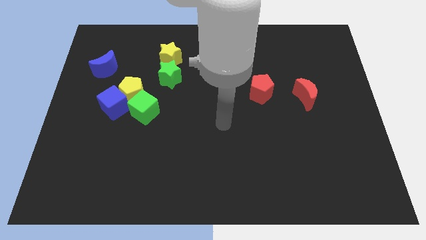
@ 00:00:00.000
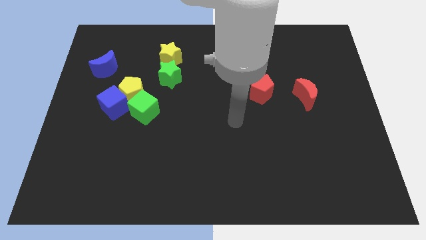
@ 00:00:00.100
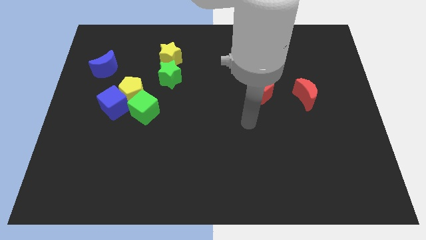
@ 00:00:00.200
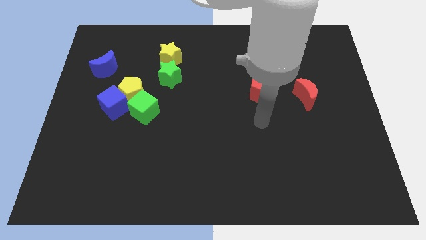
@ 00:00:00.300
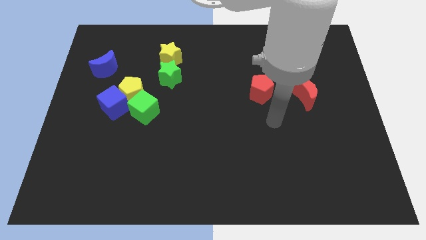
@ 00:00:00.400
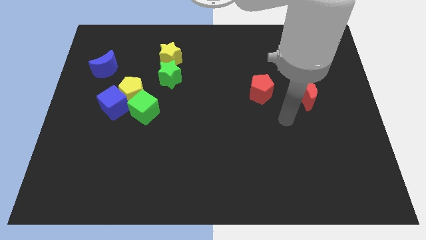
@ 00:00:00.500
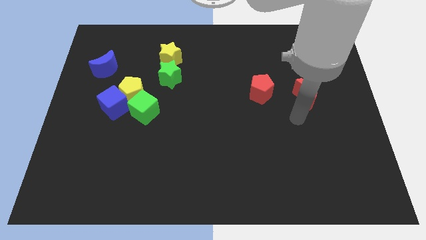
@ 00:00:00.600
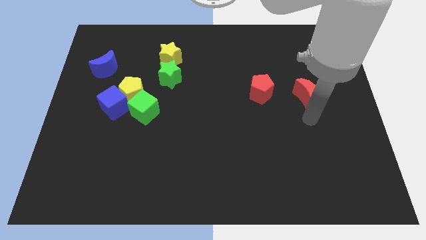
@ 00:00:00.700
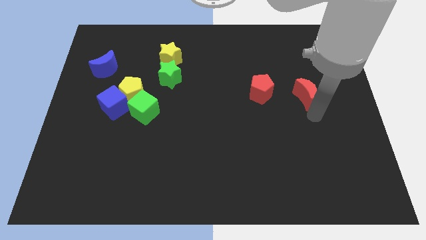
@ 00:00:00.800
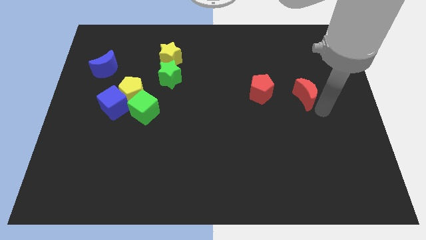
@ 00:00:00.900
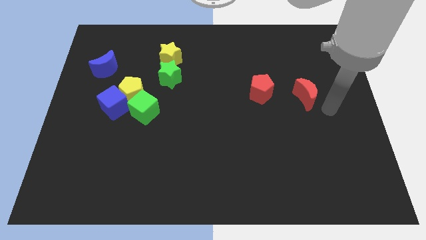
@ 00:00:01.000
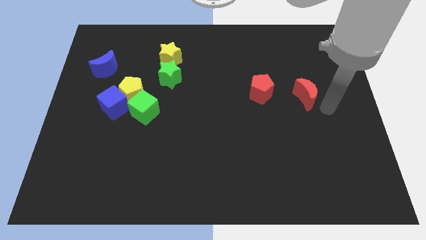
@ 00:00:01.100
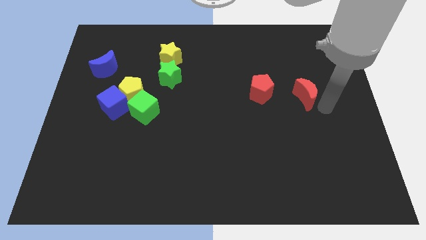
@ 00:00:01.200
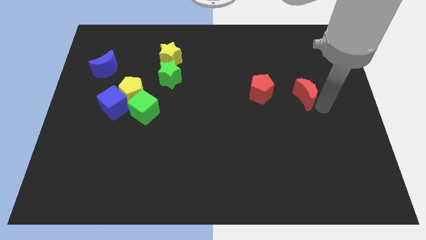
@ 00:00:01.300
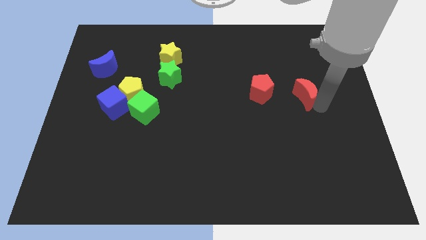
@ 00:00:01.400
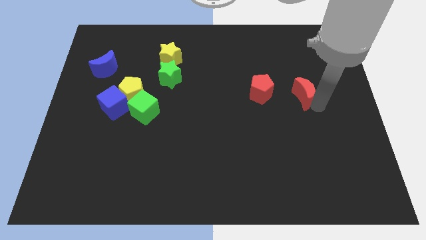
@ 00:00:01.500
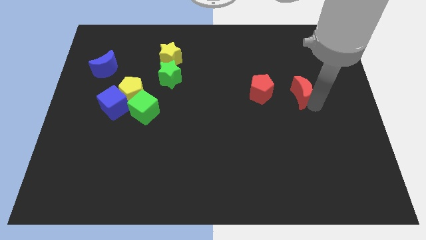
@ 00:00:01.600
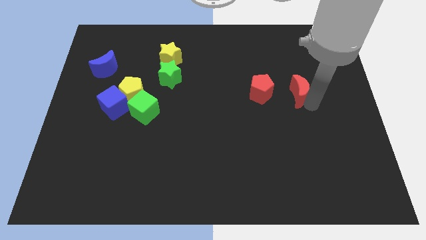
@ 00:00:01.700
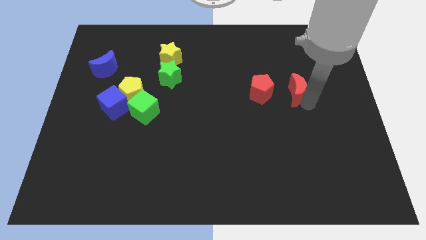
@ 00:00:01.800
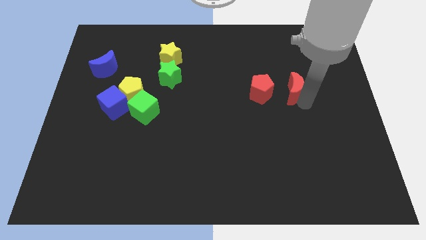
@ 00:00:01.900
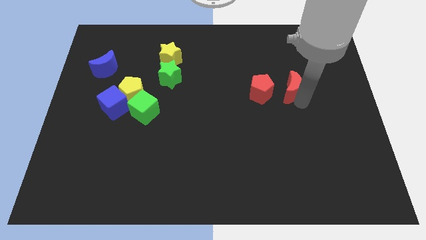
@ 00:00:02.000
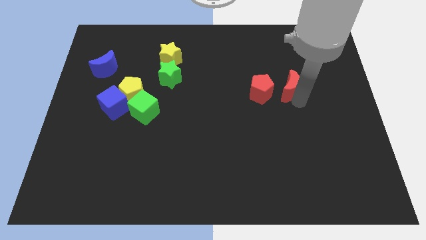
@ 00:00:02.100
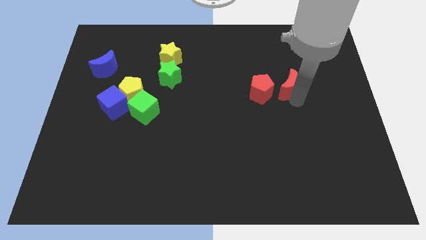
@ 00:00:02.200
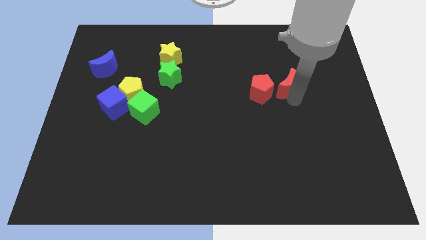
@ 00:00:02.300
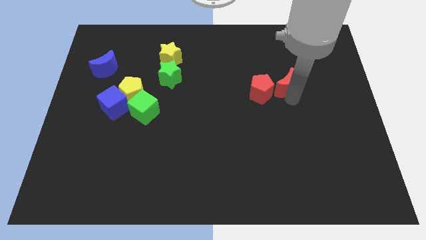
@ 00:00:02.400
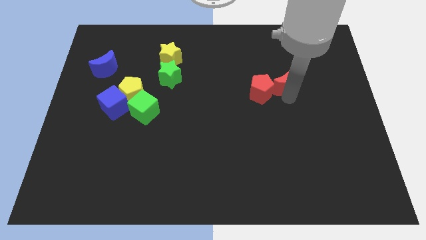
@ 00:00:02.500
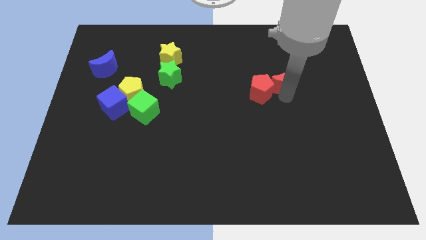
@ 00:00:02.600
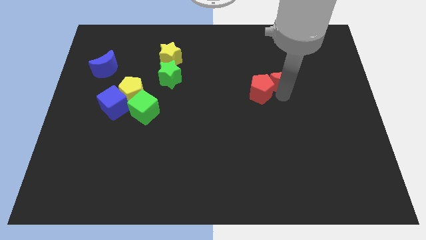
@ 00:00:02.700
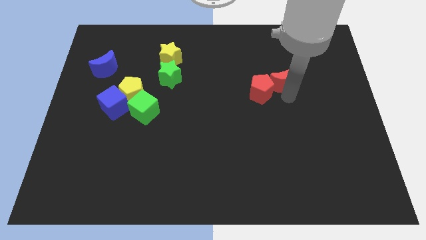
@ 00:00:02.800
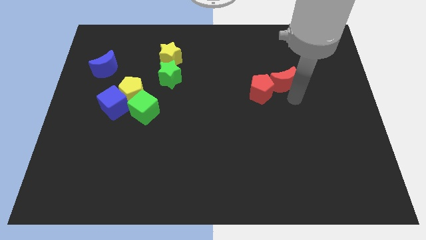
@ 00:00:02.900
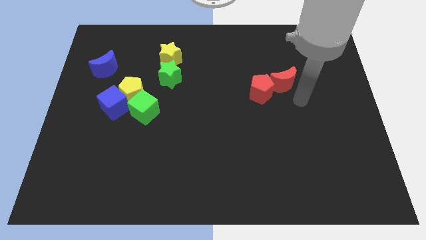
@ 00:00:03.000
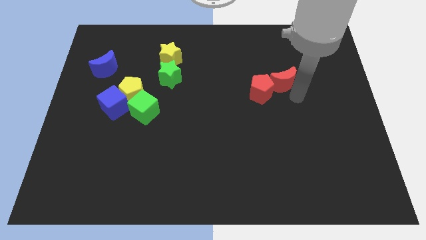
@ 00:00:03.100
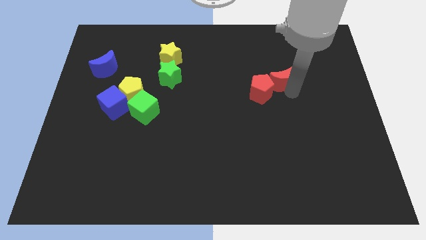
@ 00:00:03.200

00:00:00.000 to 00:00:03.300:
push the red moon upwards and then to the left a bit

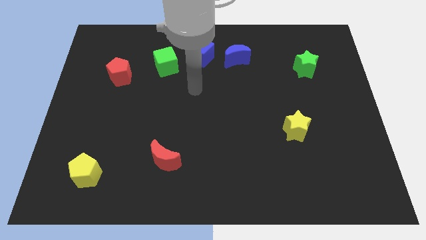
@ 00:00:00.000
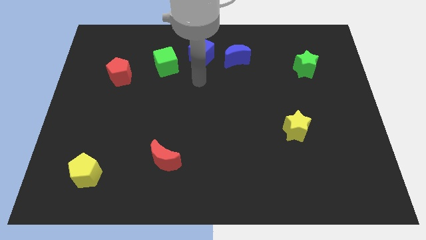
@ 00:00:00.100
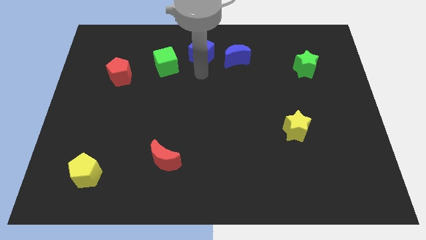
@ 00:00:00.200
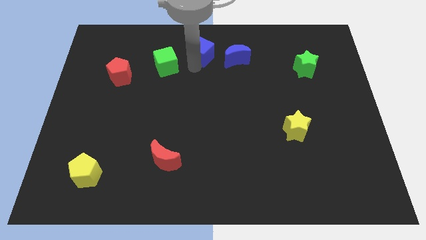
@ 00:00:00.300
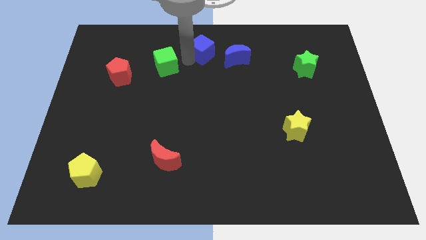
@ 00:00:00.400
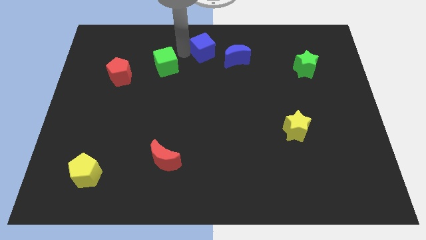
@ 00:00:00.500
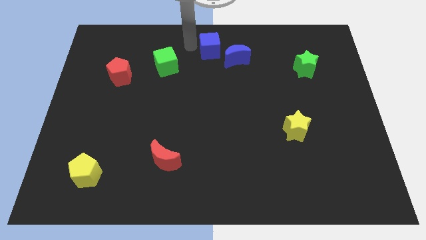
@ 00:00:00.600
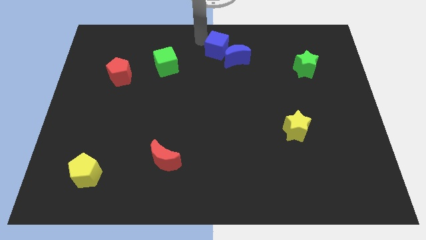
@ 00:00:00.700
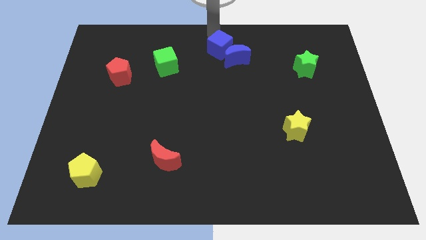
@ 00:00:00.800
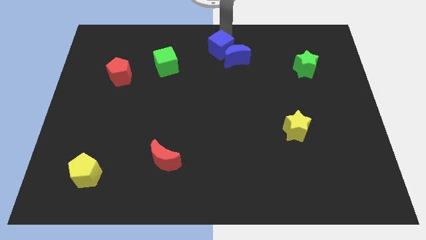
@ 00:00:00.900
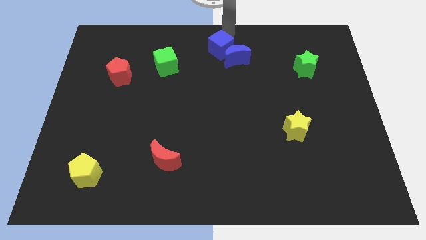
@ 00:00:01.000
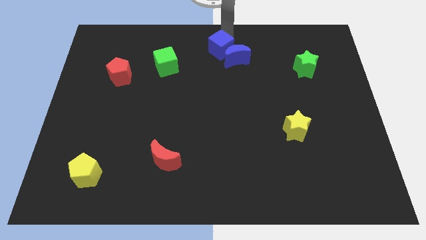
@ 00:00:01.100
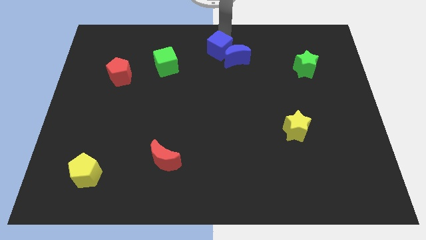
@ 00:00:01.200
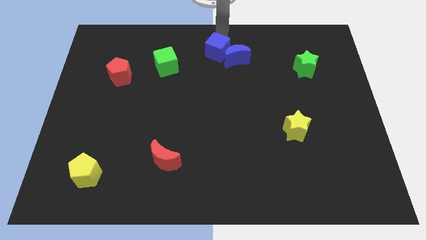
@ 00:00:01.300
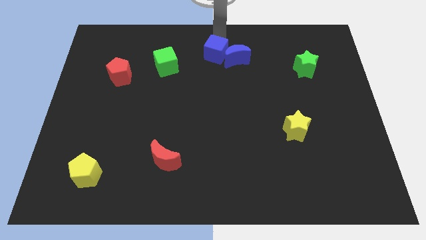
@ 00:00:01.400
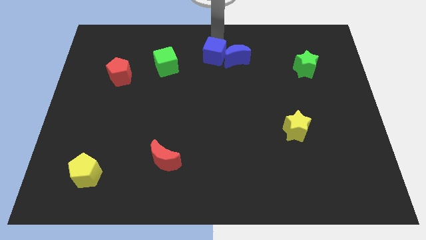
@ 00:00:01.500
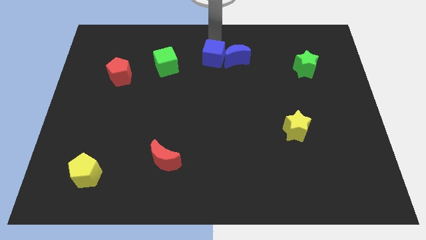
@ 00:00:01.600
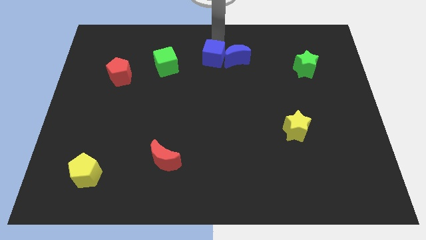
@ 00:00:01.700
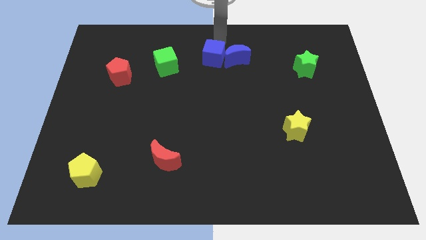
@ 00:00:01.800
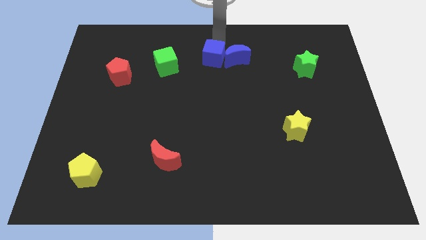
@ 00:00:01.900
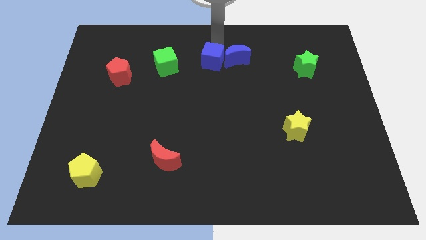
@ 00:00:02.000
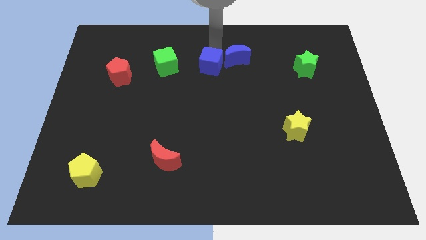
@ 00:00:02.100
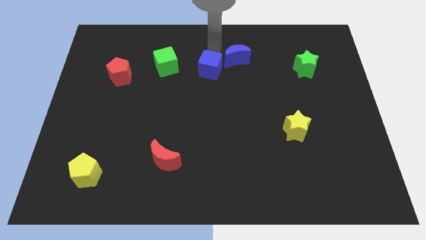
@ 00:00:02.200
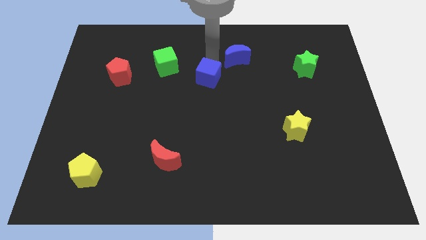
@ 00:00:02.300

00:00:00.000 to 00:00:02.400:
push the blue cube somewhat downwards

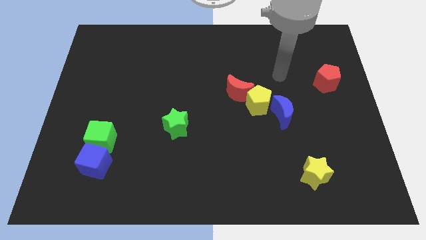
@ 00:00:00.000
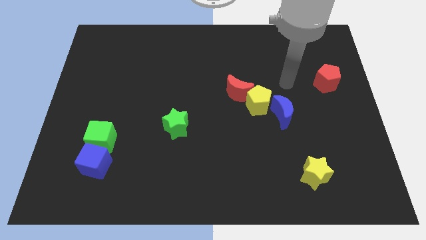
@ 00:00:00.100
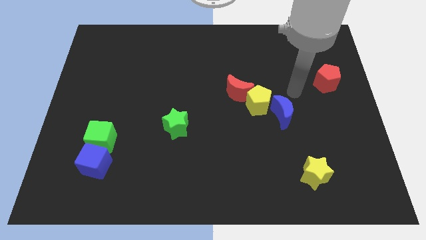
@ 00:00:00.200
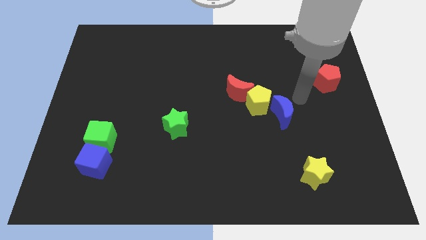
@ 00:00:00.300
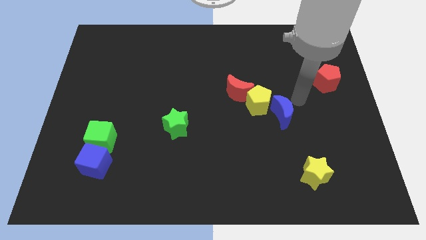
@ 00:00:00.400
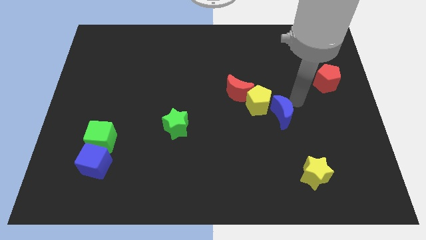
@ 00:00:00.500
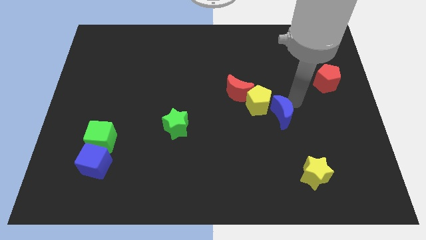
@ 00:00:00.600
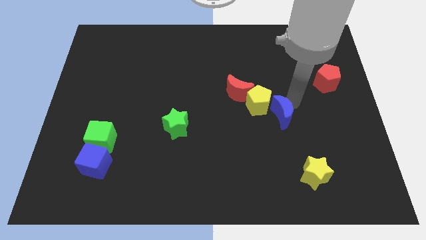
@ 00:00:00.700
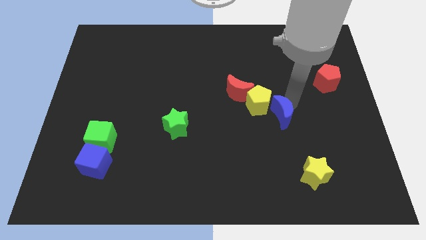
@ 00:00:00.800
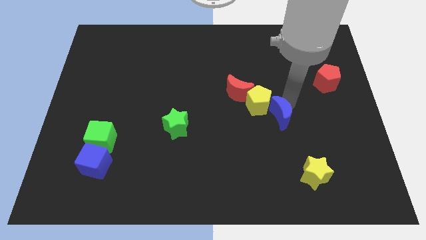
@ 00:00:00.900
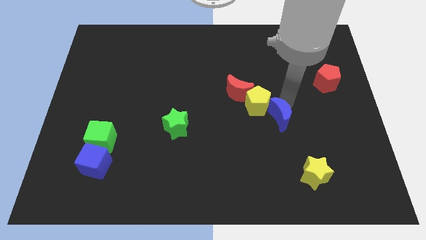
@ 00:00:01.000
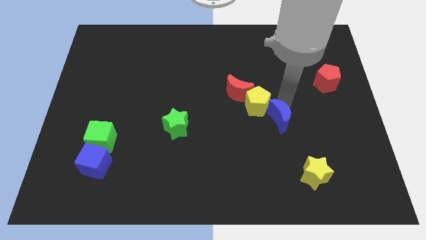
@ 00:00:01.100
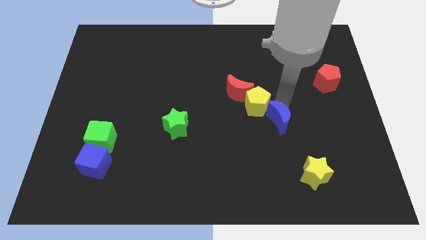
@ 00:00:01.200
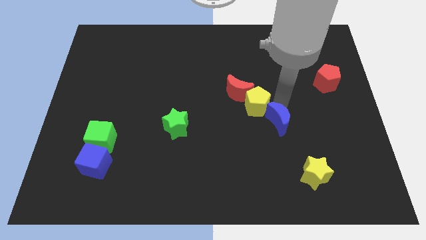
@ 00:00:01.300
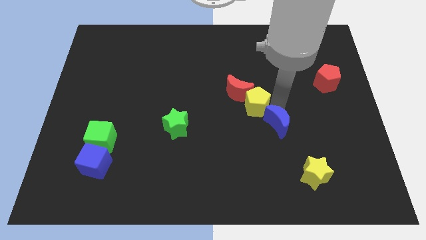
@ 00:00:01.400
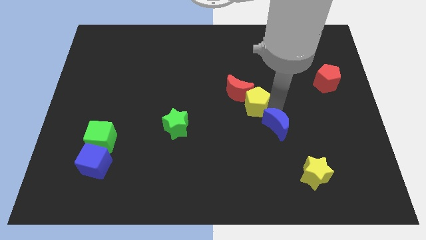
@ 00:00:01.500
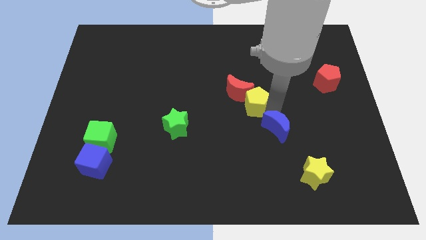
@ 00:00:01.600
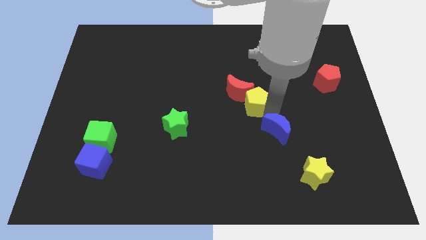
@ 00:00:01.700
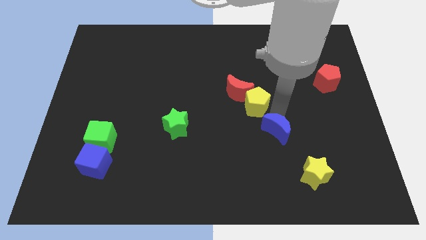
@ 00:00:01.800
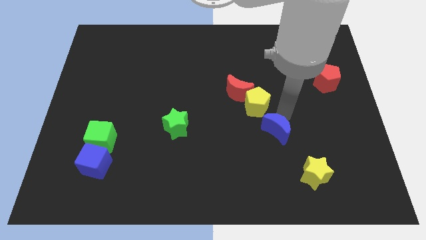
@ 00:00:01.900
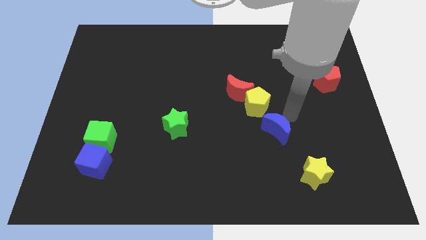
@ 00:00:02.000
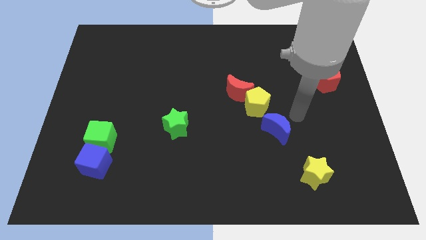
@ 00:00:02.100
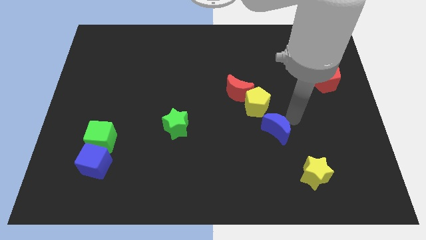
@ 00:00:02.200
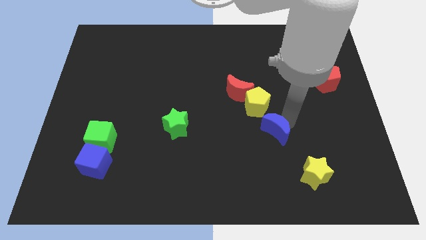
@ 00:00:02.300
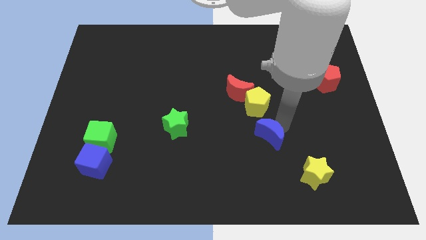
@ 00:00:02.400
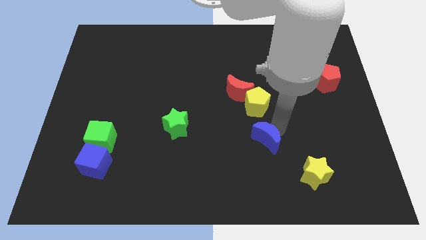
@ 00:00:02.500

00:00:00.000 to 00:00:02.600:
slide the blue moon somewhat diagonally downwards and left
